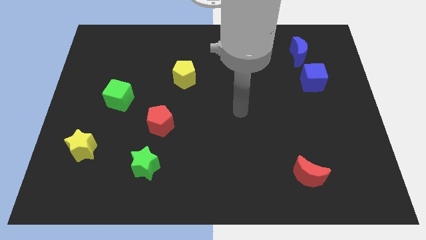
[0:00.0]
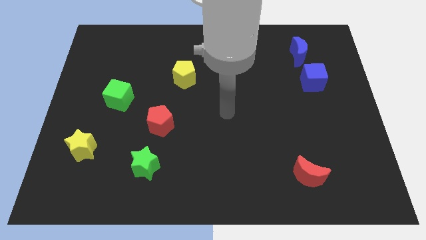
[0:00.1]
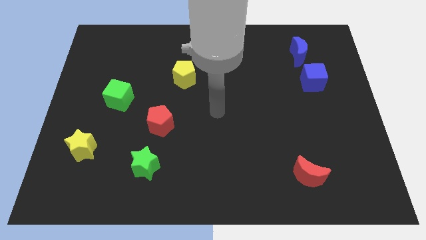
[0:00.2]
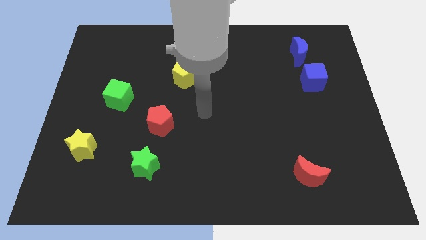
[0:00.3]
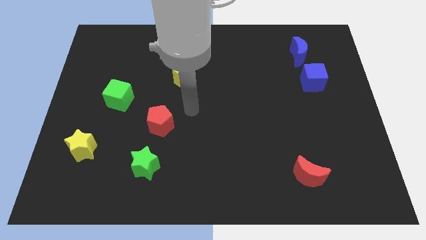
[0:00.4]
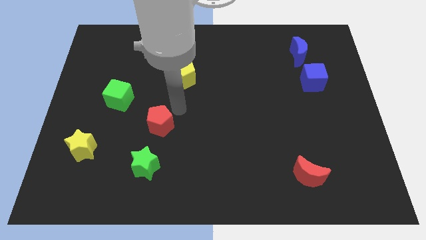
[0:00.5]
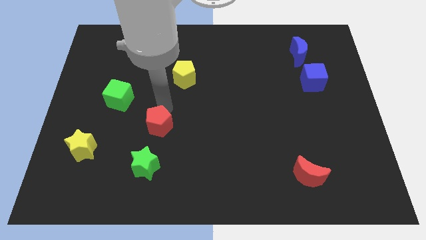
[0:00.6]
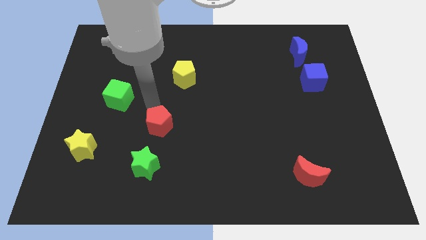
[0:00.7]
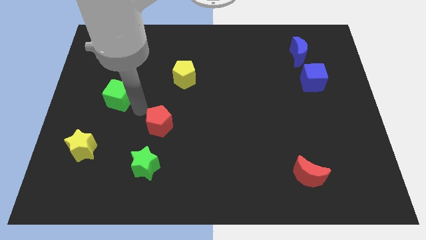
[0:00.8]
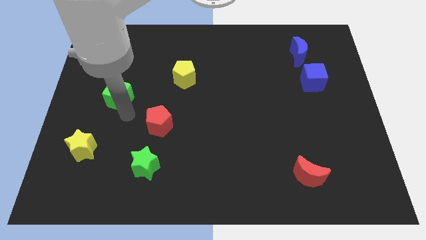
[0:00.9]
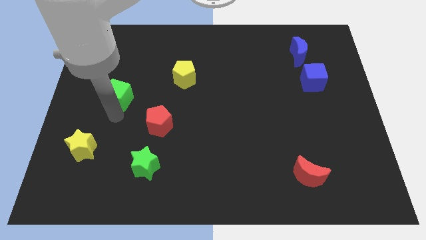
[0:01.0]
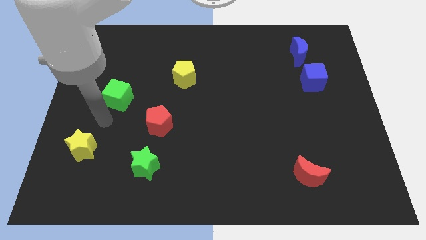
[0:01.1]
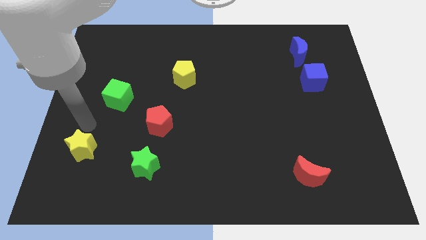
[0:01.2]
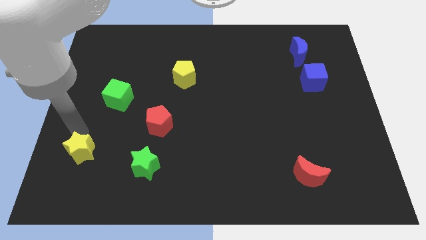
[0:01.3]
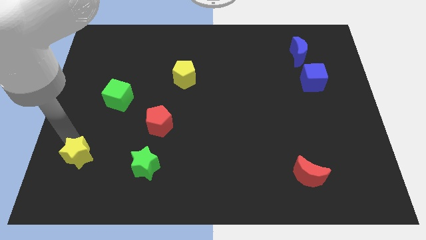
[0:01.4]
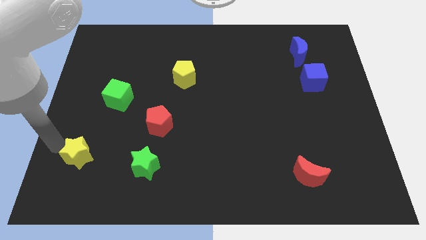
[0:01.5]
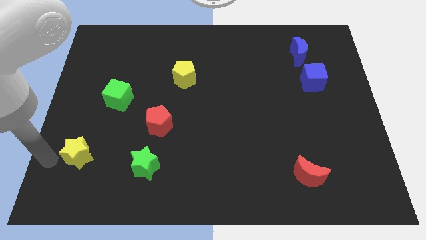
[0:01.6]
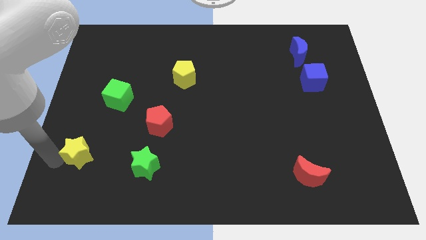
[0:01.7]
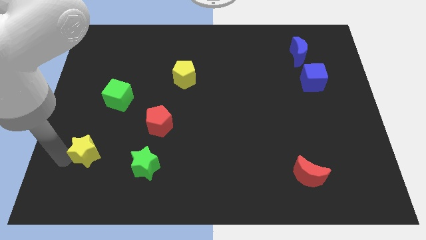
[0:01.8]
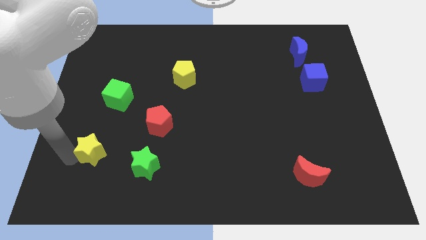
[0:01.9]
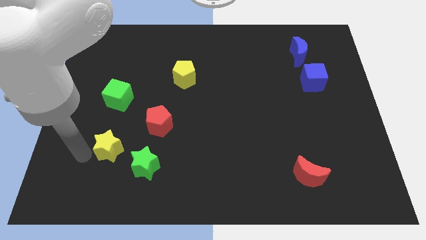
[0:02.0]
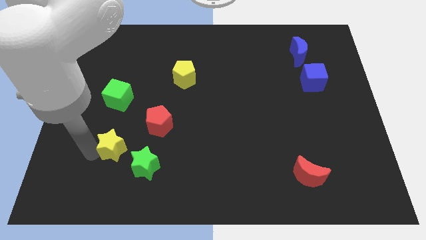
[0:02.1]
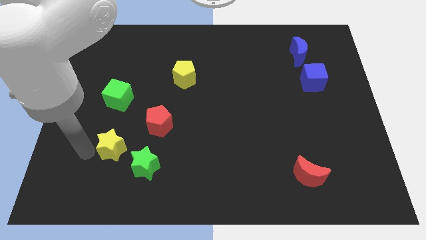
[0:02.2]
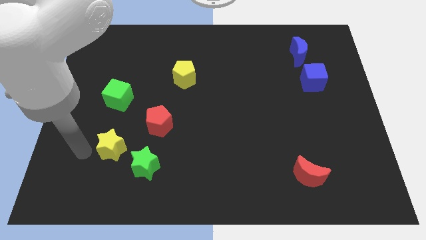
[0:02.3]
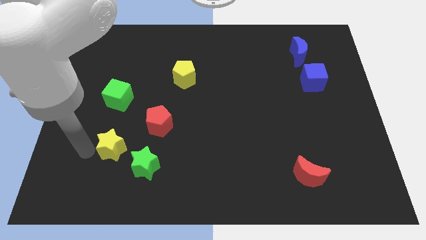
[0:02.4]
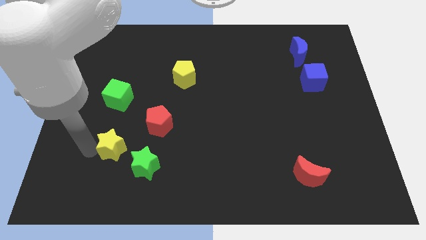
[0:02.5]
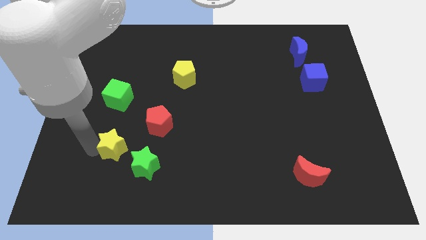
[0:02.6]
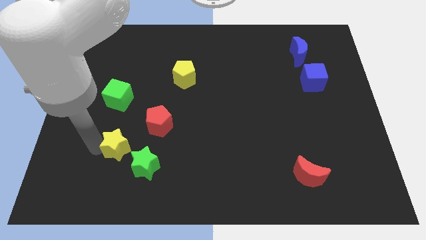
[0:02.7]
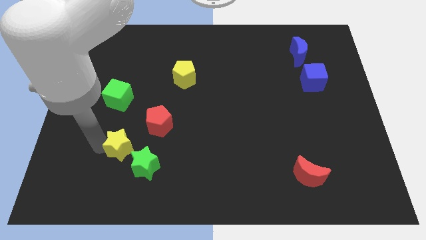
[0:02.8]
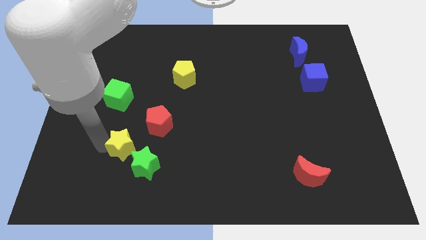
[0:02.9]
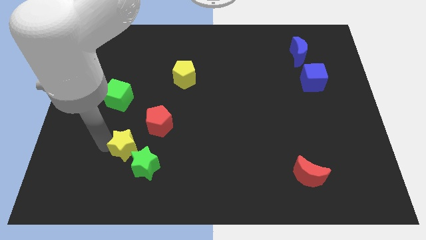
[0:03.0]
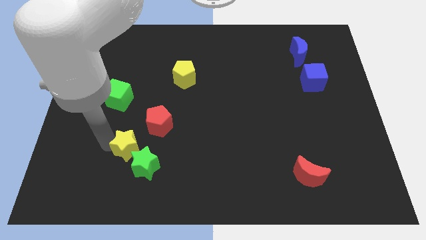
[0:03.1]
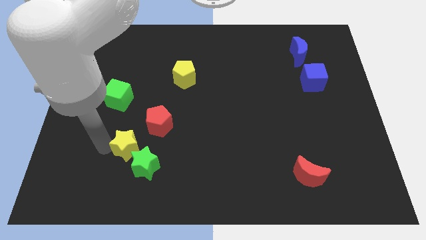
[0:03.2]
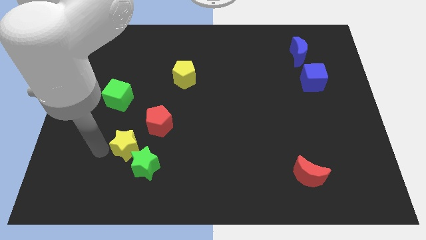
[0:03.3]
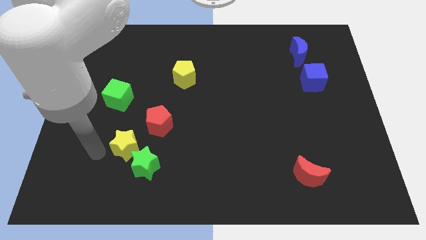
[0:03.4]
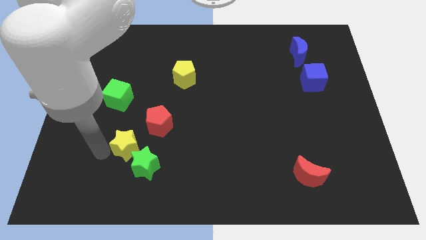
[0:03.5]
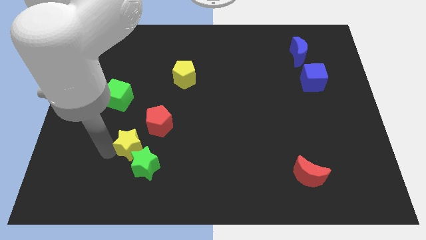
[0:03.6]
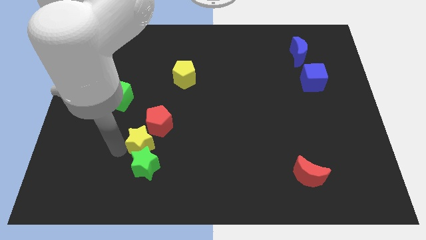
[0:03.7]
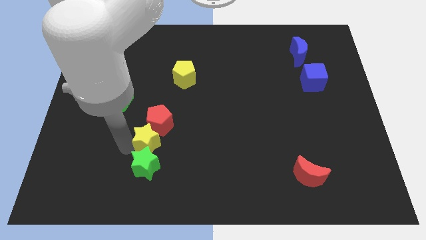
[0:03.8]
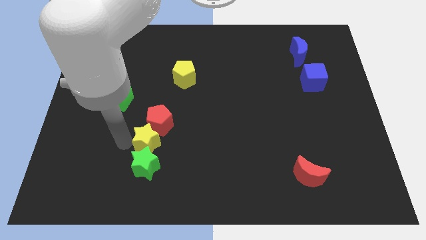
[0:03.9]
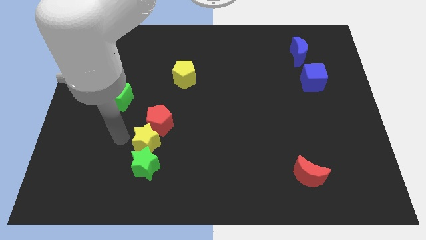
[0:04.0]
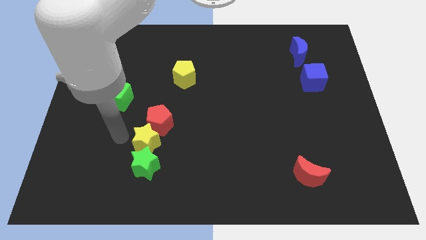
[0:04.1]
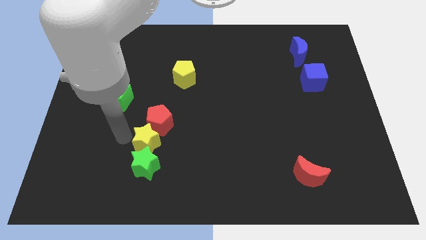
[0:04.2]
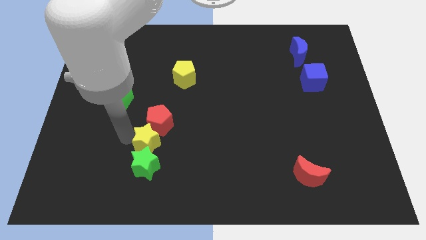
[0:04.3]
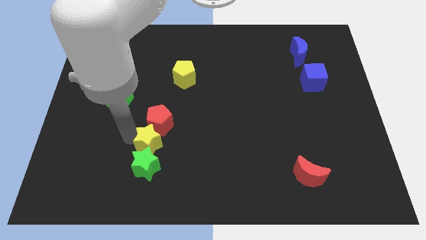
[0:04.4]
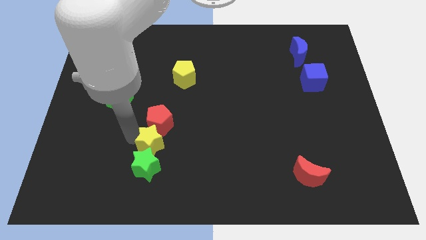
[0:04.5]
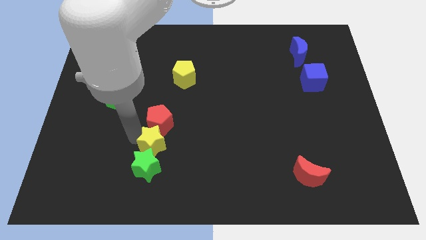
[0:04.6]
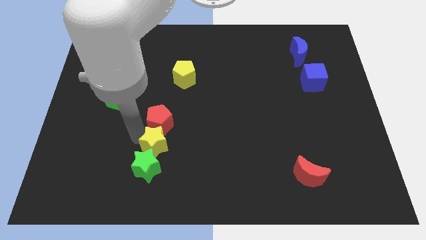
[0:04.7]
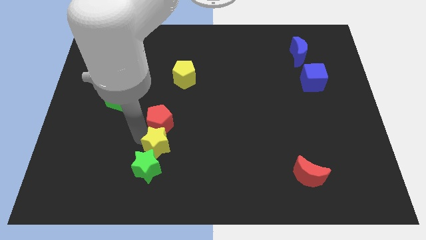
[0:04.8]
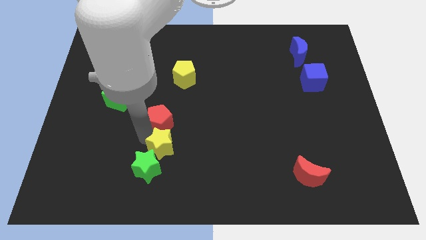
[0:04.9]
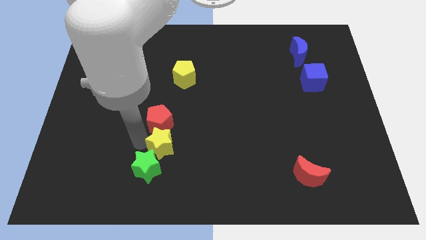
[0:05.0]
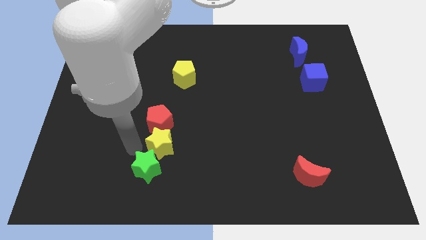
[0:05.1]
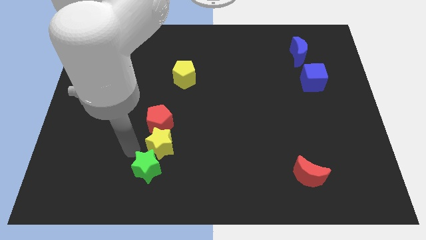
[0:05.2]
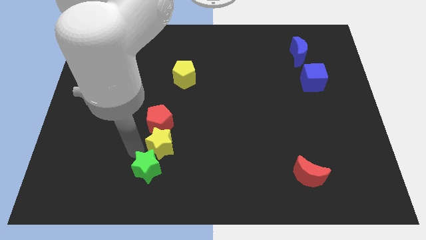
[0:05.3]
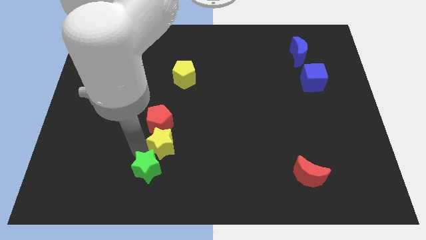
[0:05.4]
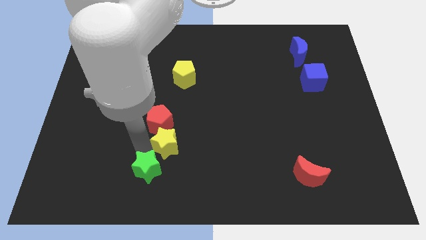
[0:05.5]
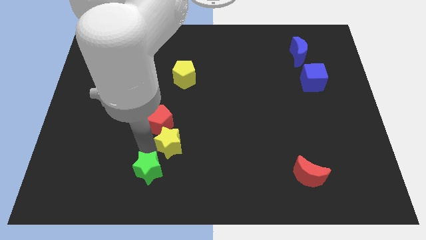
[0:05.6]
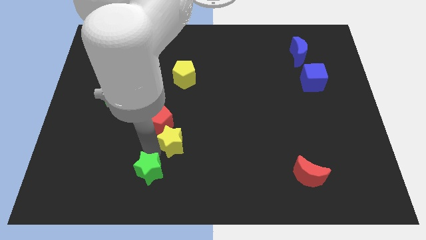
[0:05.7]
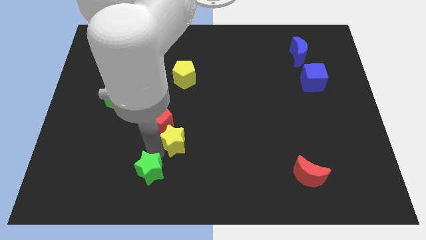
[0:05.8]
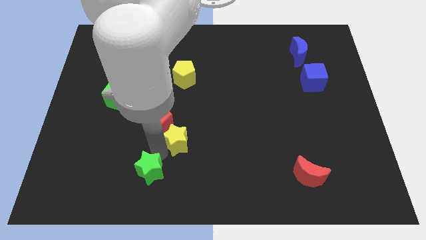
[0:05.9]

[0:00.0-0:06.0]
push the yellow star to the right

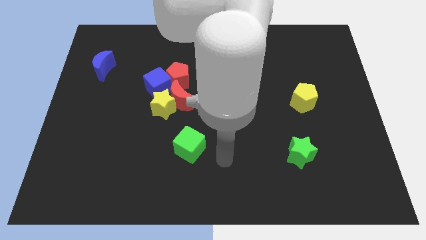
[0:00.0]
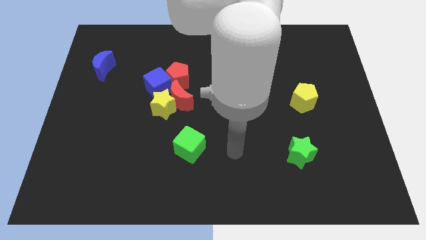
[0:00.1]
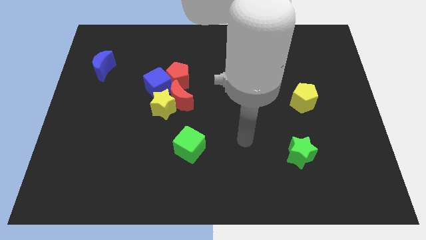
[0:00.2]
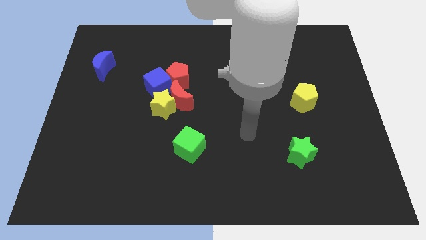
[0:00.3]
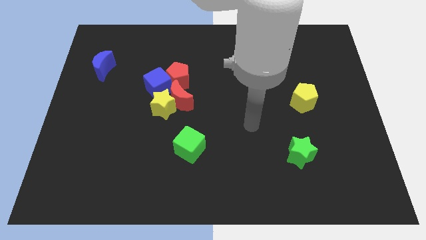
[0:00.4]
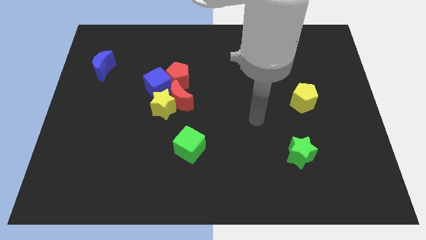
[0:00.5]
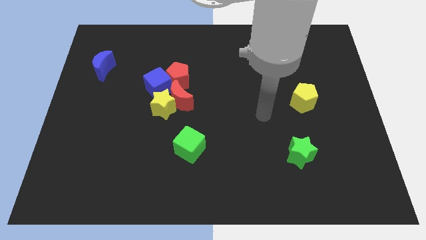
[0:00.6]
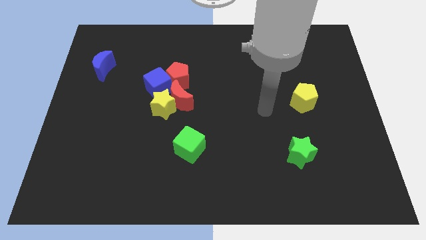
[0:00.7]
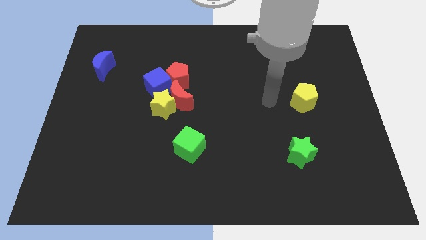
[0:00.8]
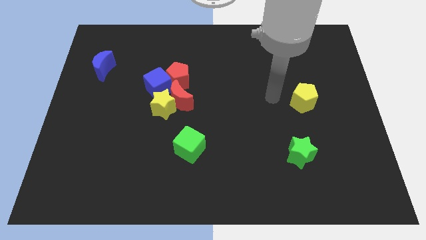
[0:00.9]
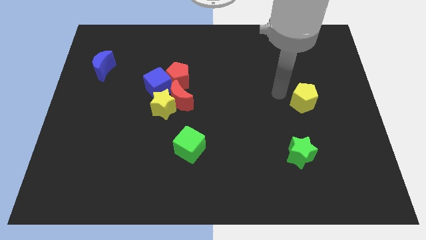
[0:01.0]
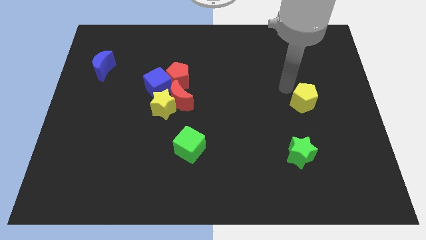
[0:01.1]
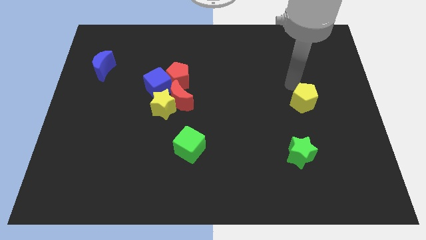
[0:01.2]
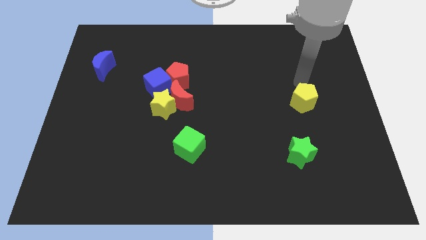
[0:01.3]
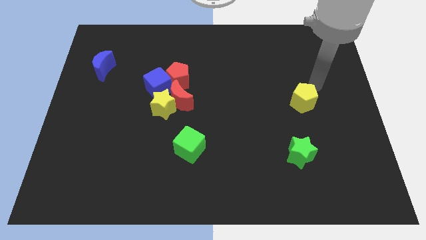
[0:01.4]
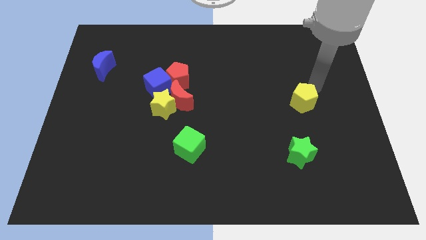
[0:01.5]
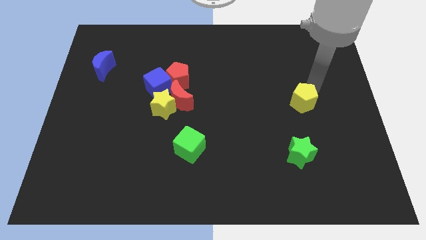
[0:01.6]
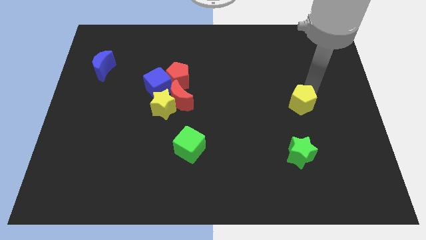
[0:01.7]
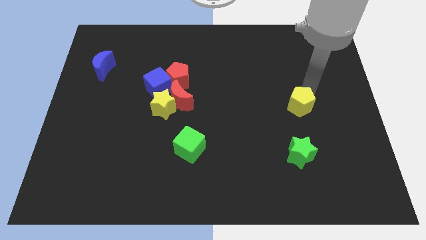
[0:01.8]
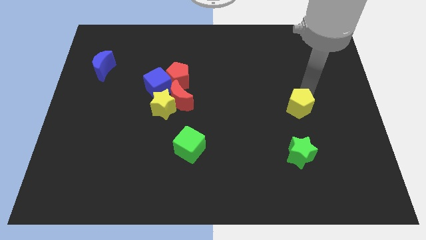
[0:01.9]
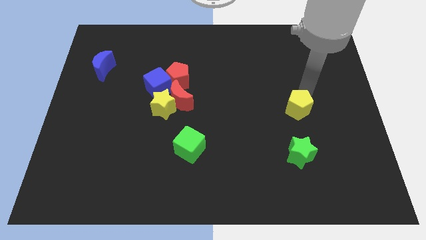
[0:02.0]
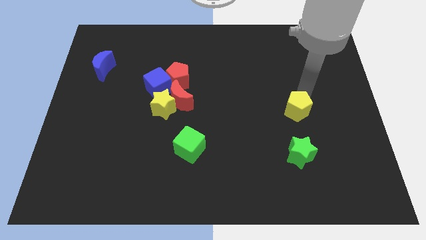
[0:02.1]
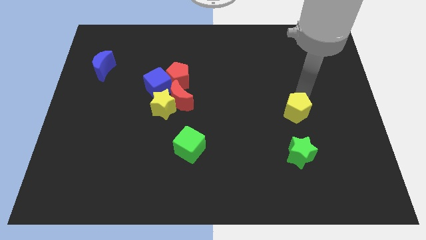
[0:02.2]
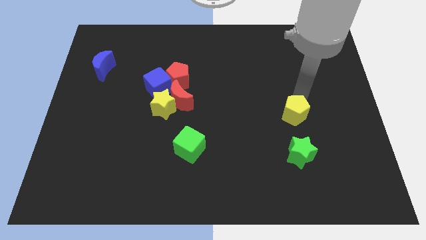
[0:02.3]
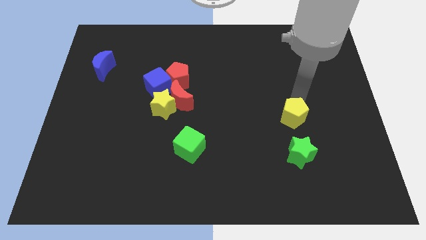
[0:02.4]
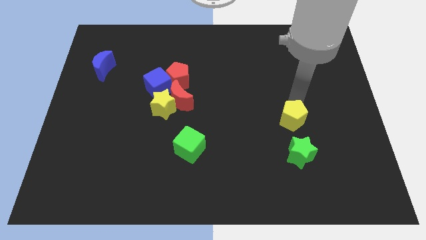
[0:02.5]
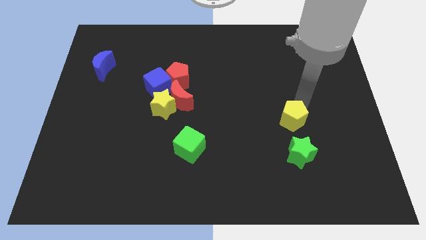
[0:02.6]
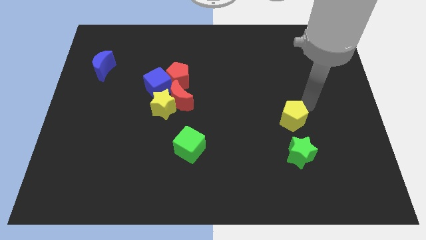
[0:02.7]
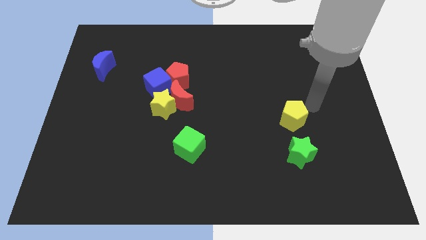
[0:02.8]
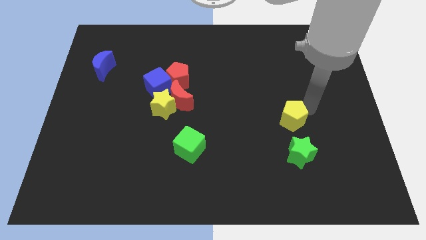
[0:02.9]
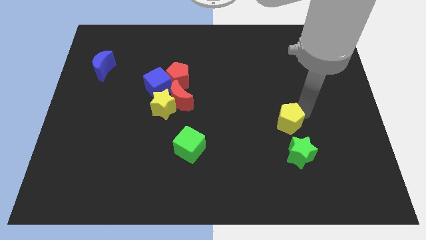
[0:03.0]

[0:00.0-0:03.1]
slightly push the yellow pentagon diagonally downwards and to the left
